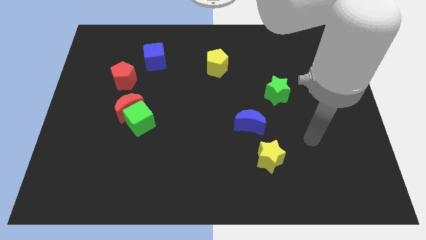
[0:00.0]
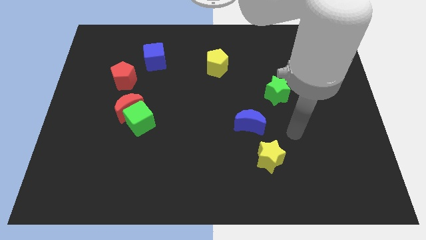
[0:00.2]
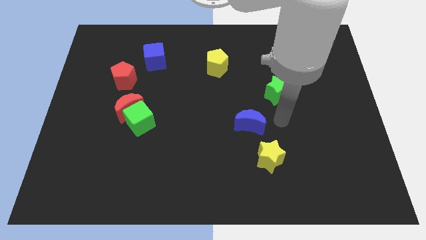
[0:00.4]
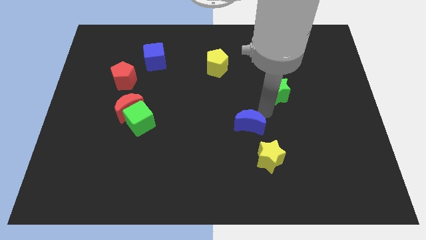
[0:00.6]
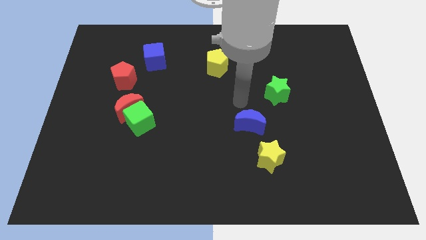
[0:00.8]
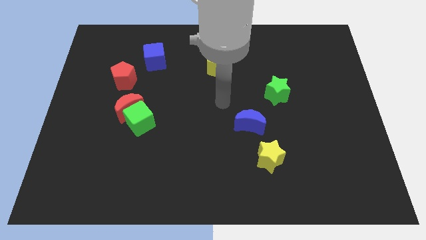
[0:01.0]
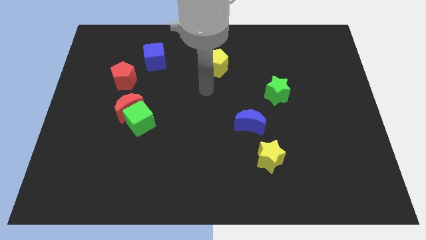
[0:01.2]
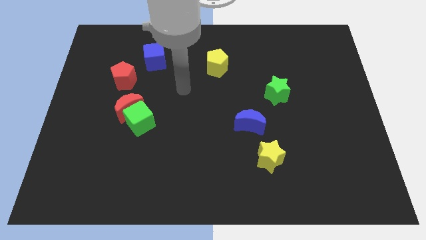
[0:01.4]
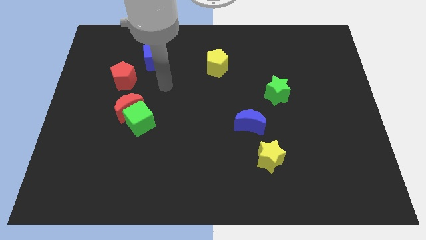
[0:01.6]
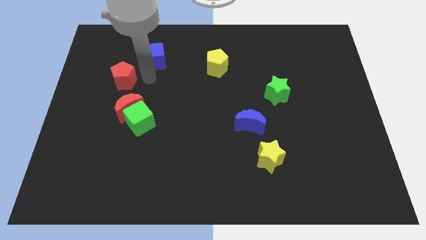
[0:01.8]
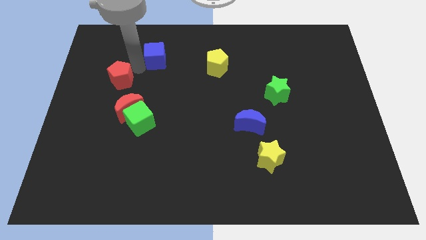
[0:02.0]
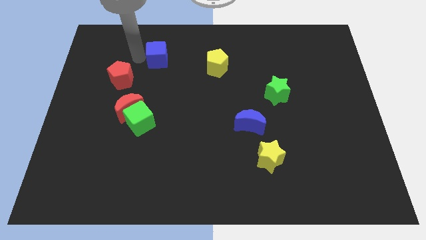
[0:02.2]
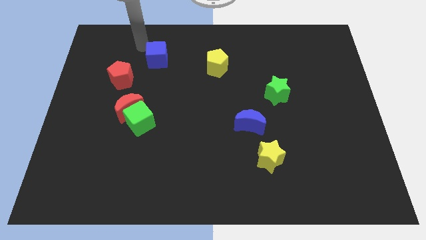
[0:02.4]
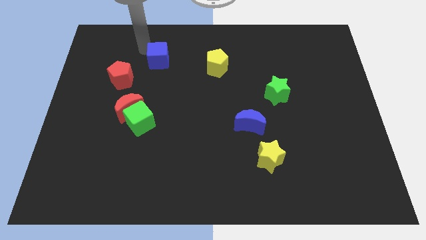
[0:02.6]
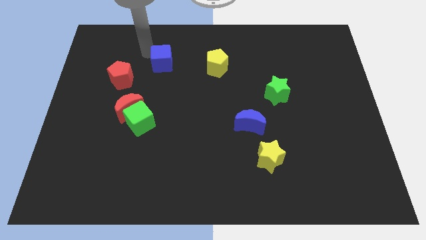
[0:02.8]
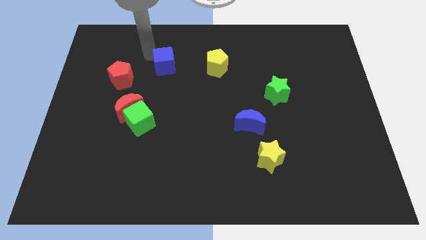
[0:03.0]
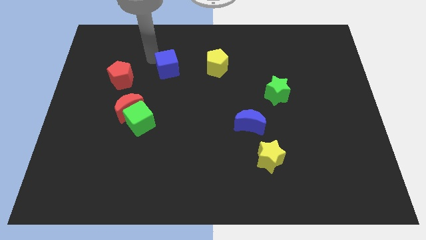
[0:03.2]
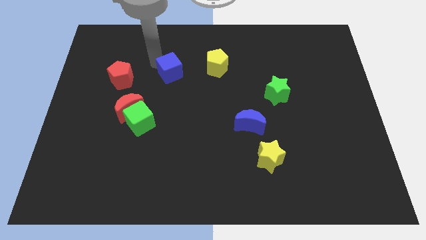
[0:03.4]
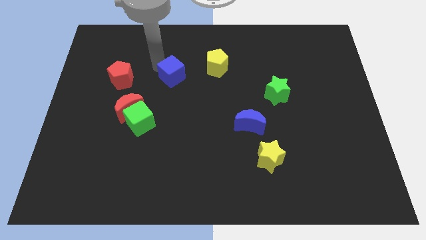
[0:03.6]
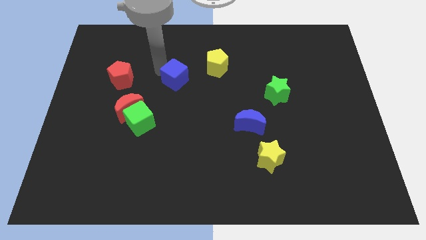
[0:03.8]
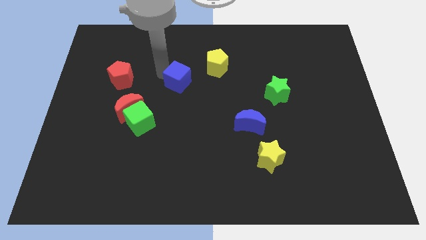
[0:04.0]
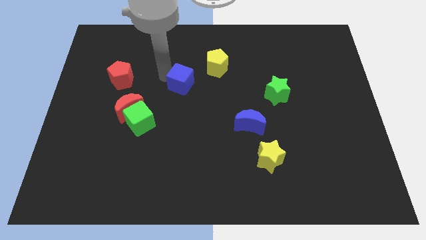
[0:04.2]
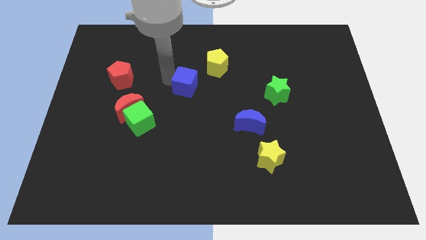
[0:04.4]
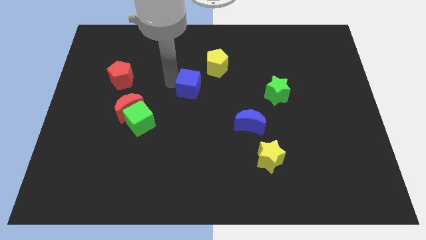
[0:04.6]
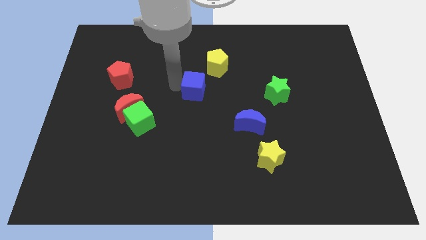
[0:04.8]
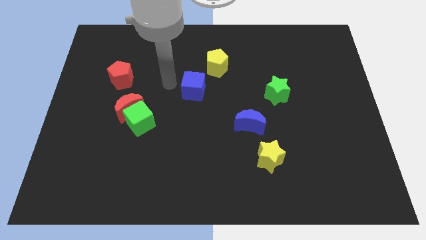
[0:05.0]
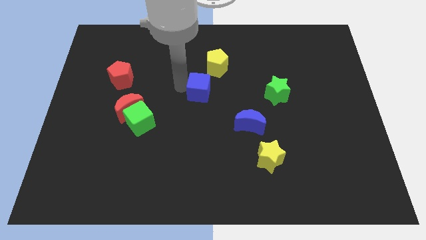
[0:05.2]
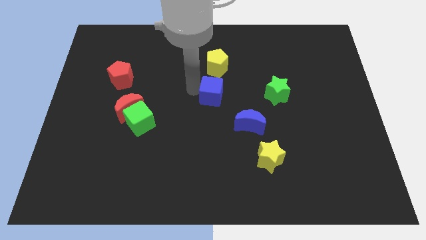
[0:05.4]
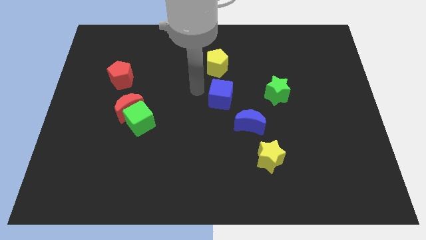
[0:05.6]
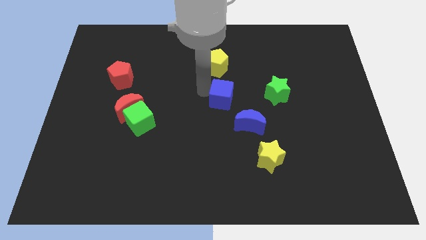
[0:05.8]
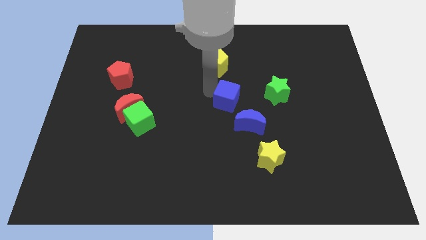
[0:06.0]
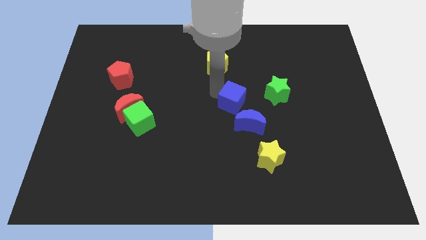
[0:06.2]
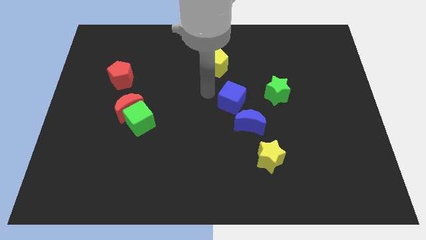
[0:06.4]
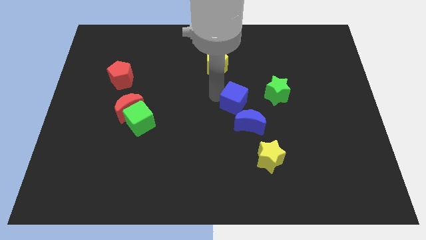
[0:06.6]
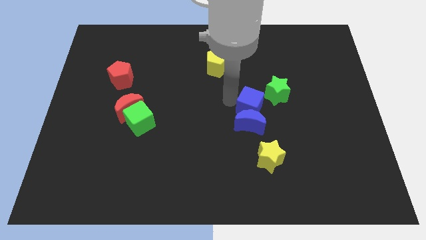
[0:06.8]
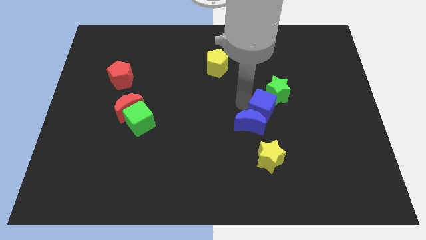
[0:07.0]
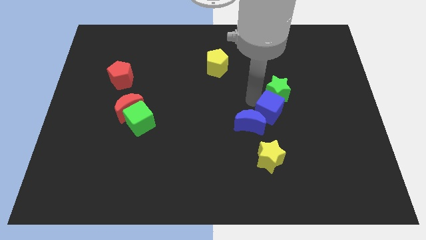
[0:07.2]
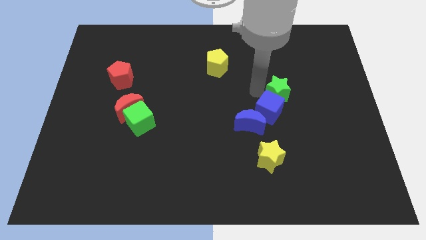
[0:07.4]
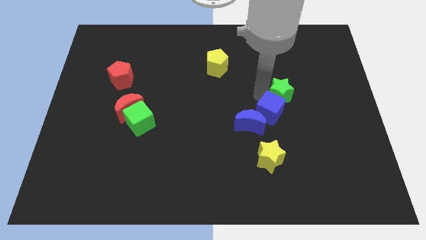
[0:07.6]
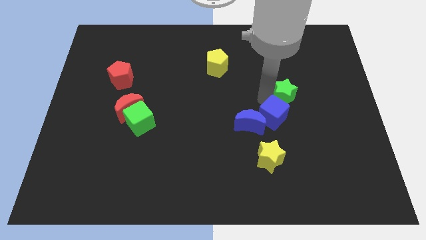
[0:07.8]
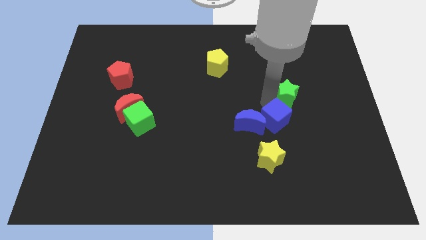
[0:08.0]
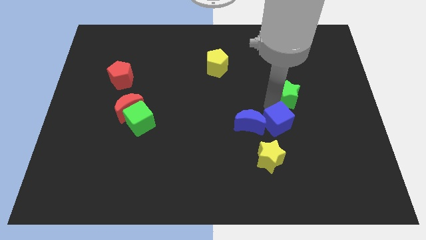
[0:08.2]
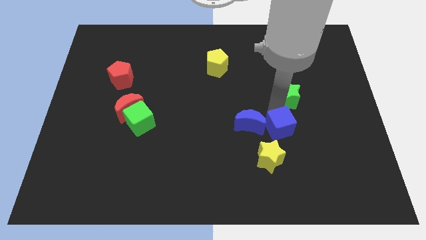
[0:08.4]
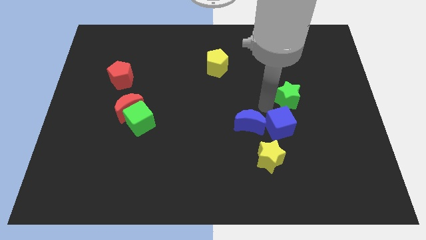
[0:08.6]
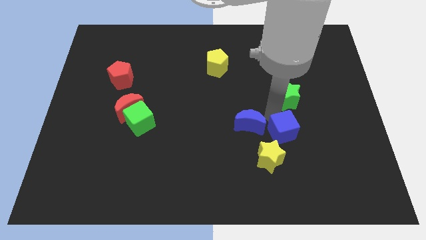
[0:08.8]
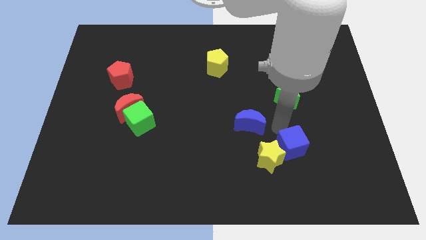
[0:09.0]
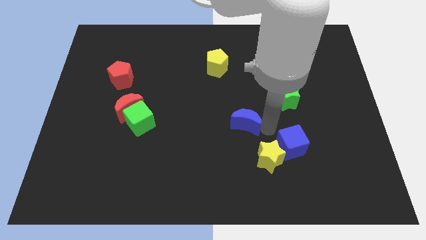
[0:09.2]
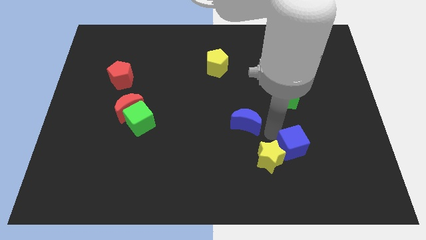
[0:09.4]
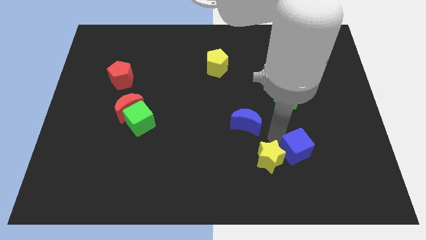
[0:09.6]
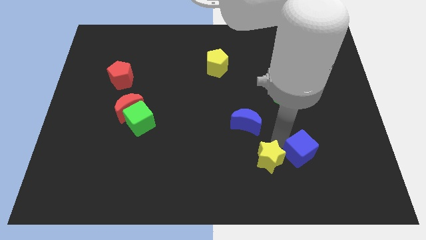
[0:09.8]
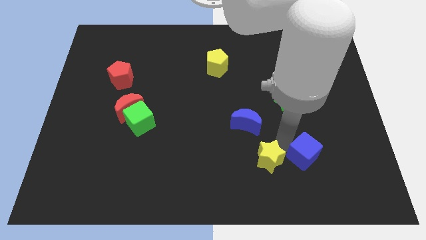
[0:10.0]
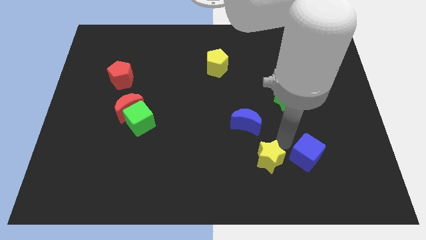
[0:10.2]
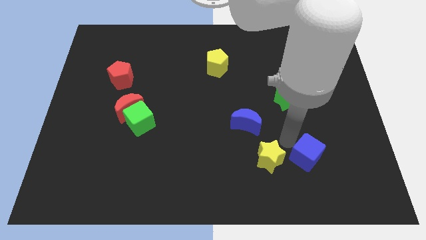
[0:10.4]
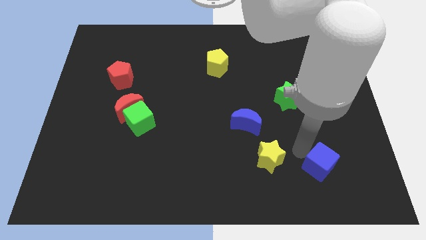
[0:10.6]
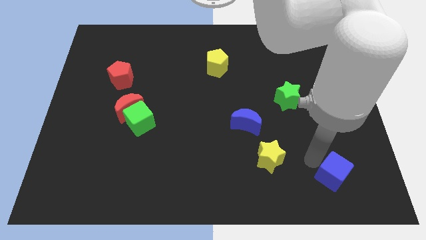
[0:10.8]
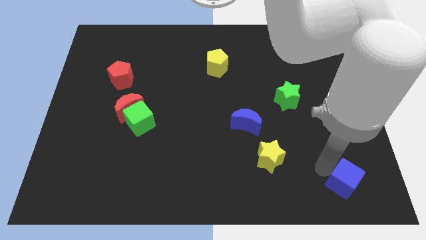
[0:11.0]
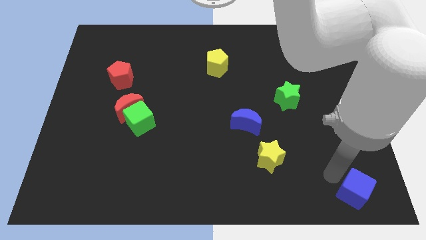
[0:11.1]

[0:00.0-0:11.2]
push the blue cube to the bottom right

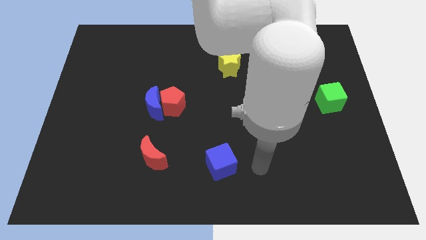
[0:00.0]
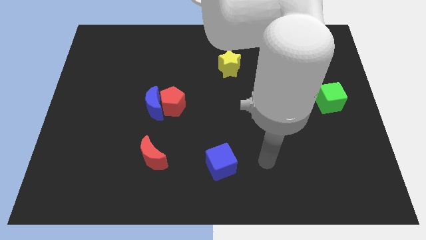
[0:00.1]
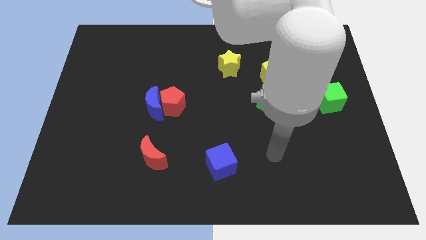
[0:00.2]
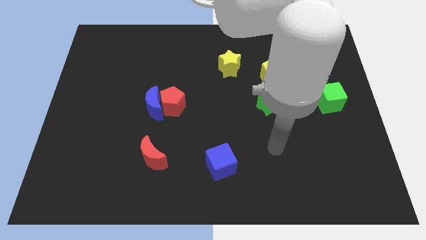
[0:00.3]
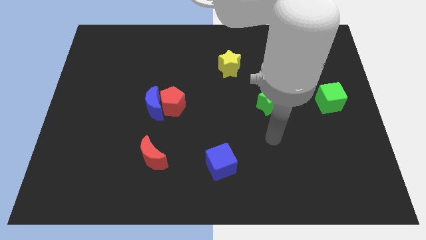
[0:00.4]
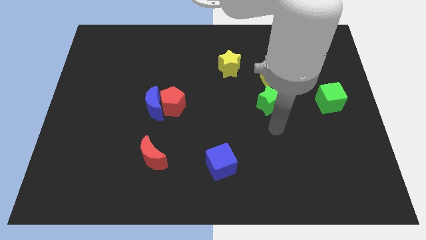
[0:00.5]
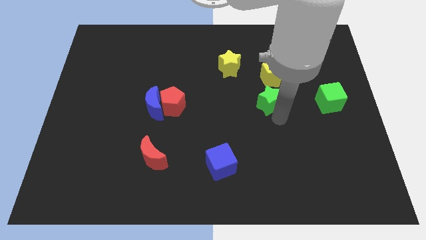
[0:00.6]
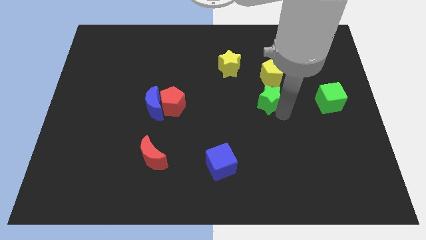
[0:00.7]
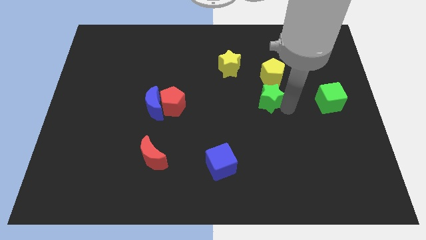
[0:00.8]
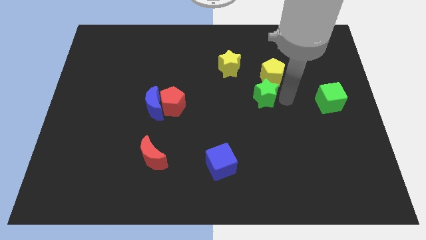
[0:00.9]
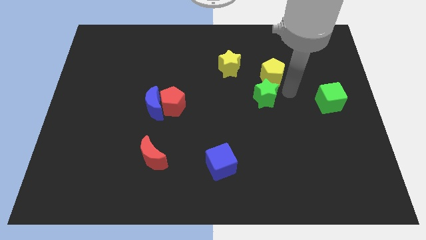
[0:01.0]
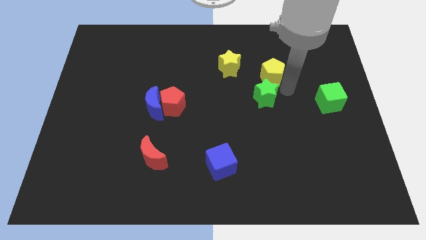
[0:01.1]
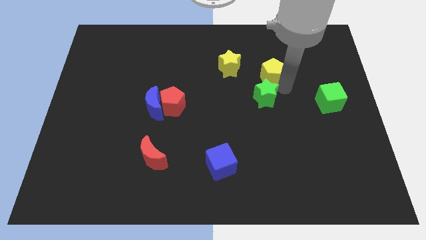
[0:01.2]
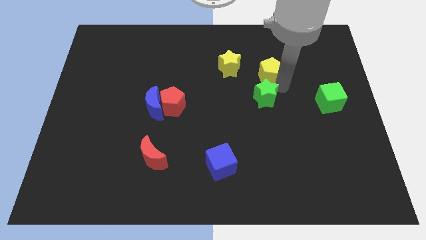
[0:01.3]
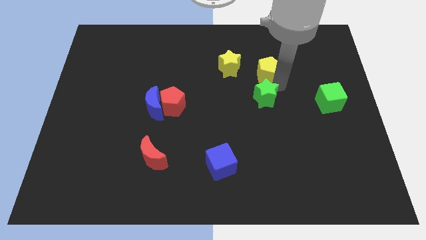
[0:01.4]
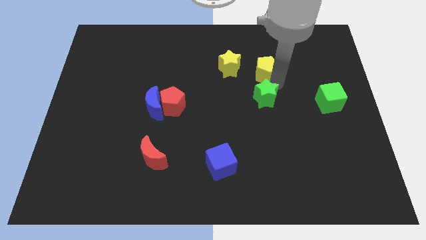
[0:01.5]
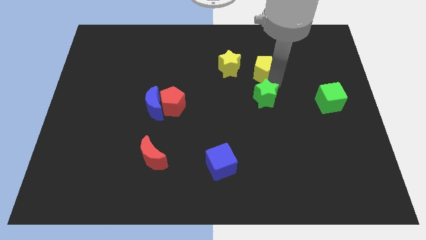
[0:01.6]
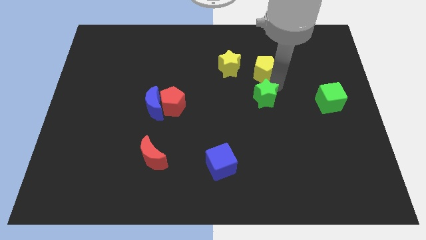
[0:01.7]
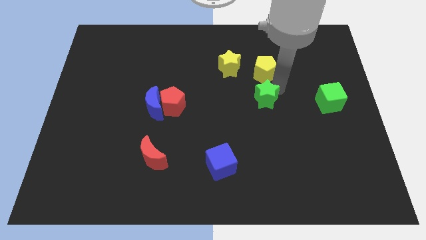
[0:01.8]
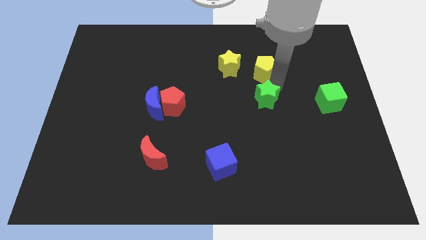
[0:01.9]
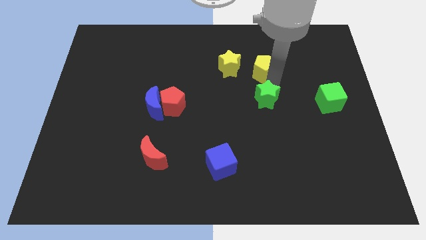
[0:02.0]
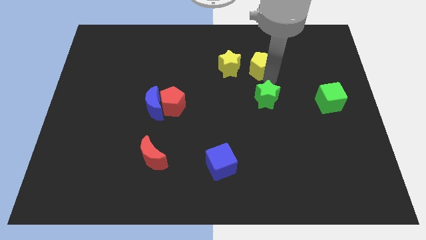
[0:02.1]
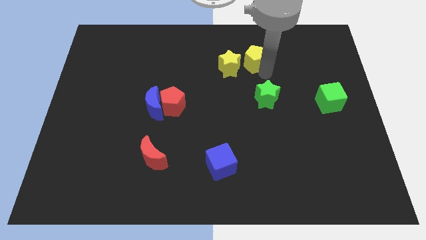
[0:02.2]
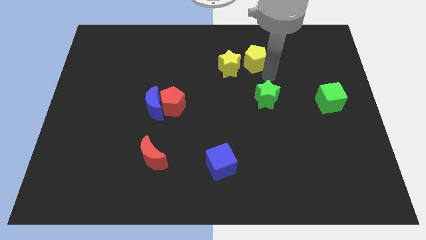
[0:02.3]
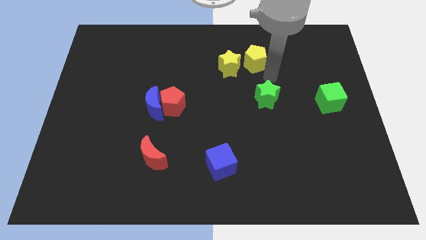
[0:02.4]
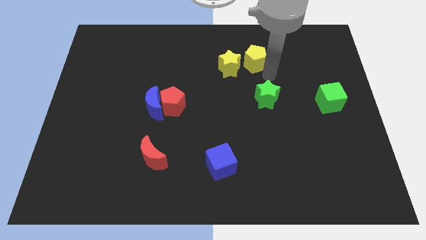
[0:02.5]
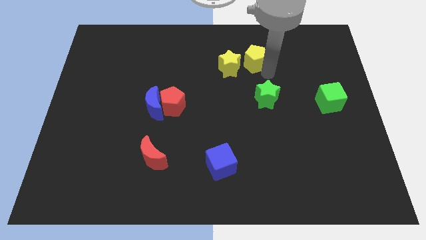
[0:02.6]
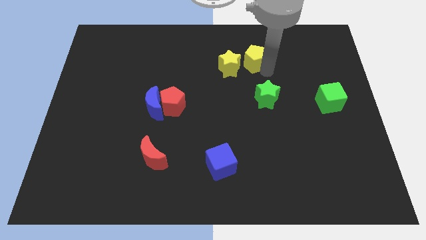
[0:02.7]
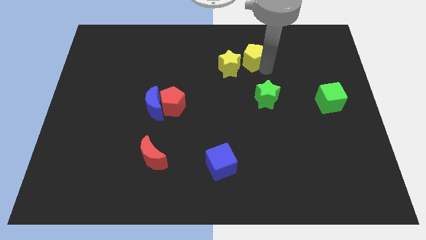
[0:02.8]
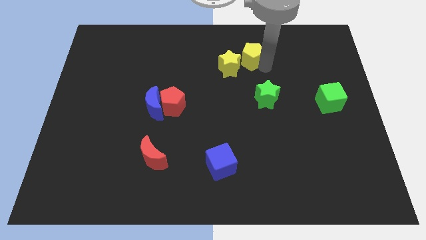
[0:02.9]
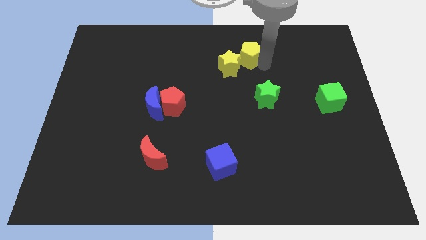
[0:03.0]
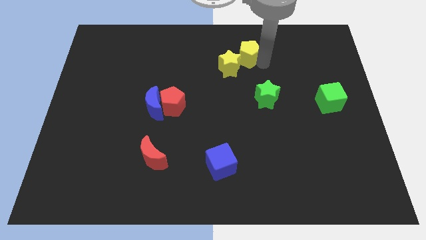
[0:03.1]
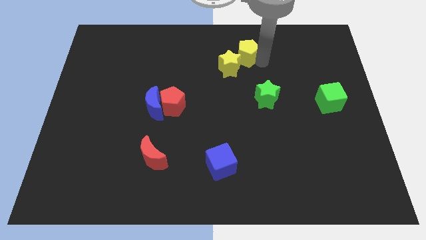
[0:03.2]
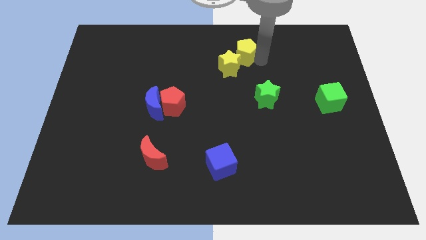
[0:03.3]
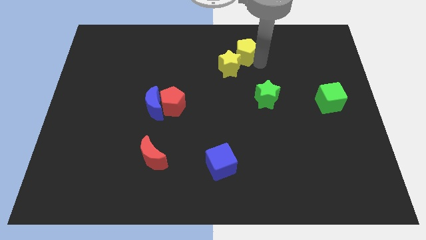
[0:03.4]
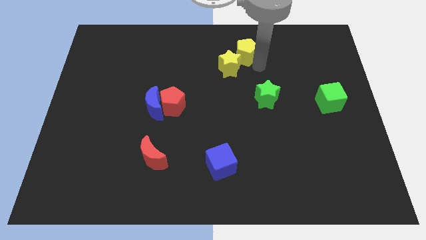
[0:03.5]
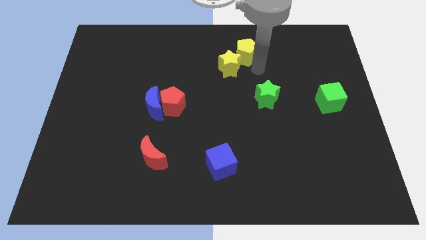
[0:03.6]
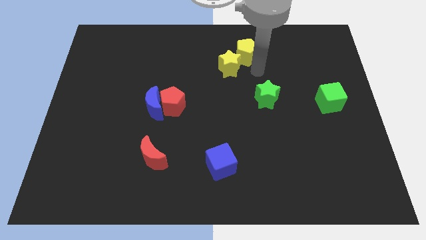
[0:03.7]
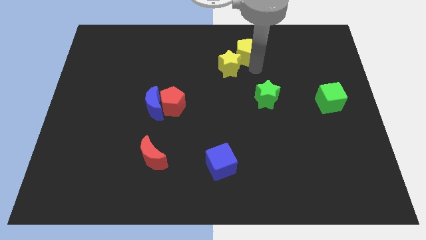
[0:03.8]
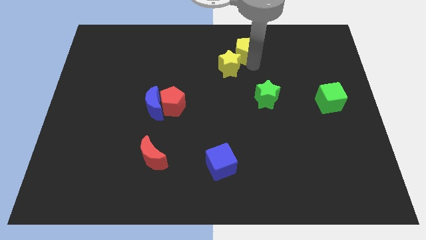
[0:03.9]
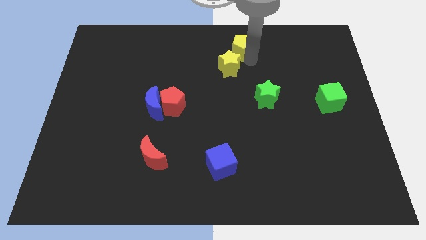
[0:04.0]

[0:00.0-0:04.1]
move the yellow pentagon to the top side
